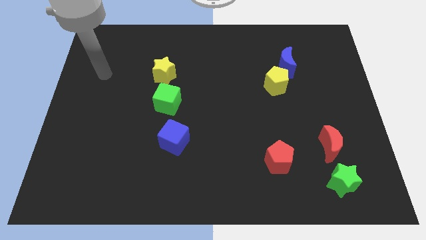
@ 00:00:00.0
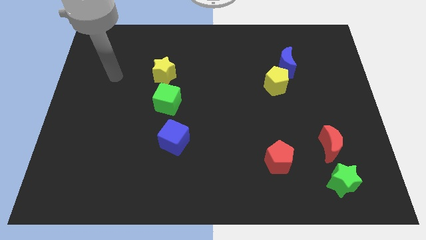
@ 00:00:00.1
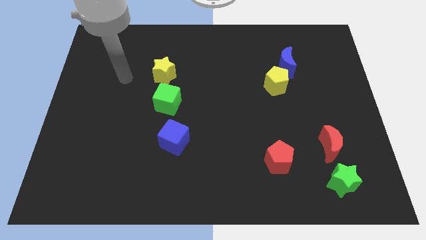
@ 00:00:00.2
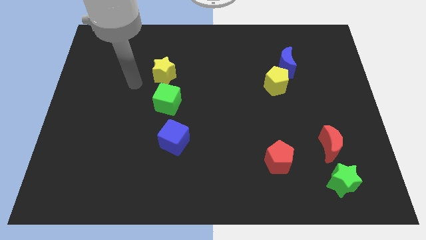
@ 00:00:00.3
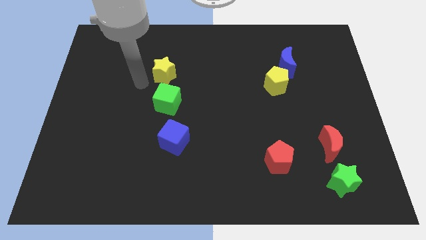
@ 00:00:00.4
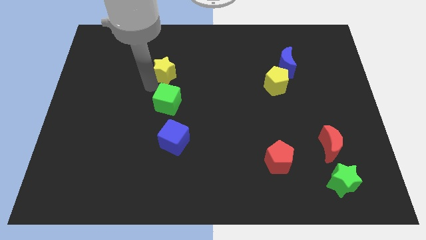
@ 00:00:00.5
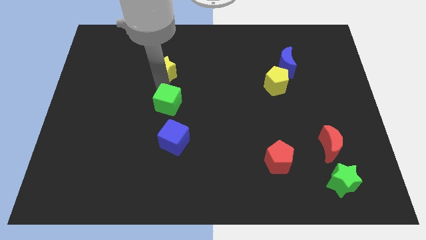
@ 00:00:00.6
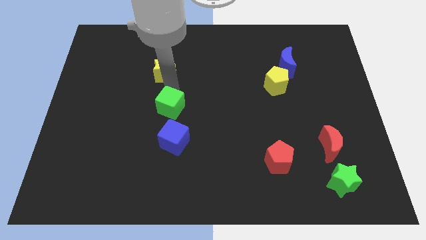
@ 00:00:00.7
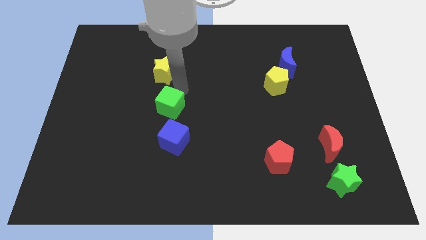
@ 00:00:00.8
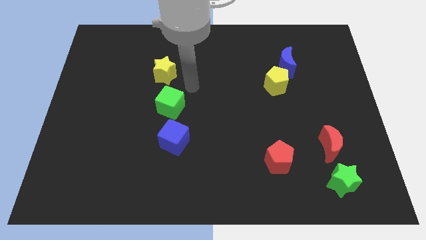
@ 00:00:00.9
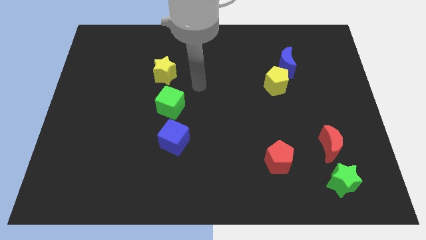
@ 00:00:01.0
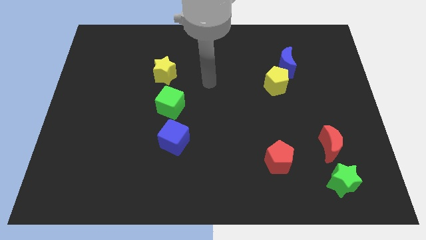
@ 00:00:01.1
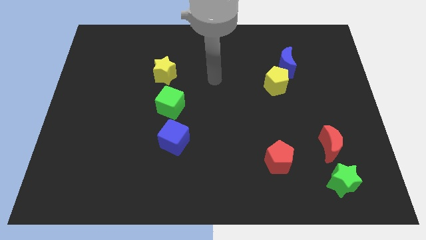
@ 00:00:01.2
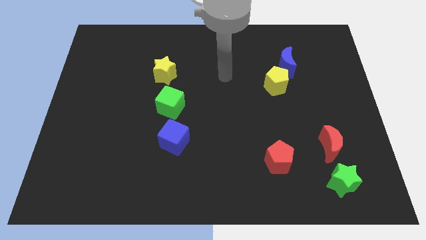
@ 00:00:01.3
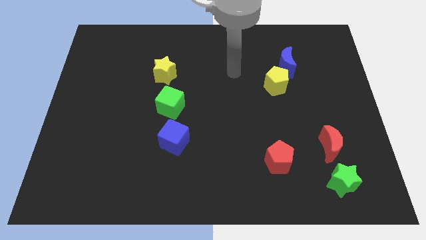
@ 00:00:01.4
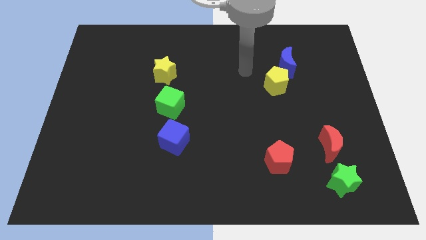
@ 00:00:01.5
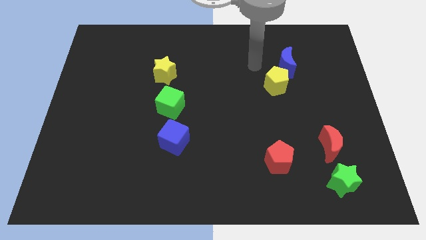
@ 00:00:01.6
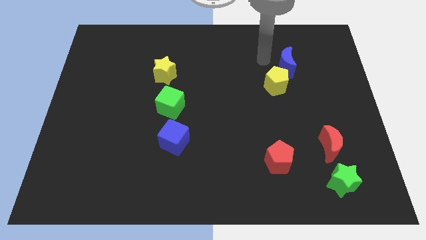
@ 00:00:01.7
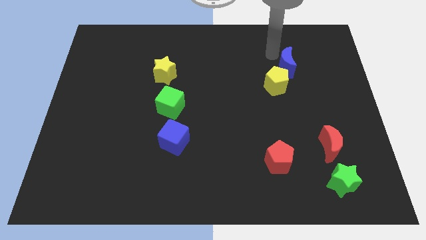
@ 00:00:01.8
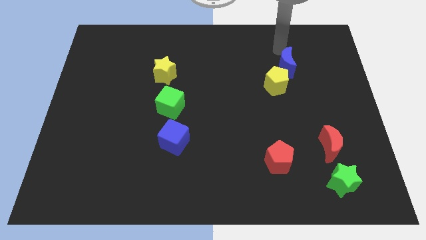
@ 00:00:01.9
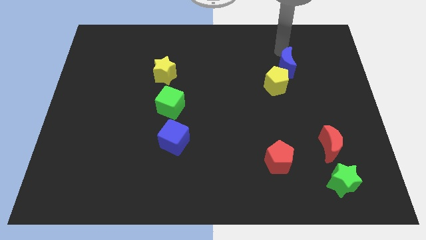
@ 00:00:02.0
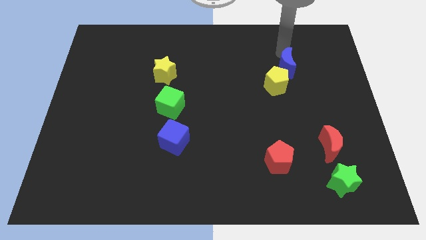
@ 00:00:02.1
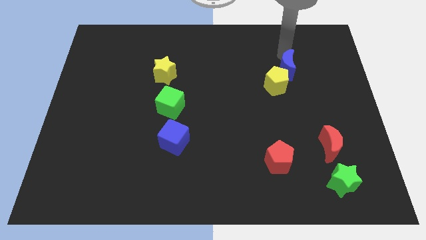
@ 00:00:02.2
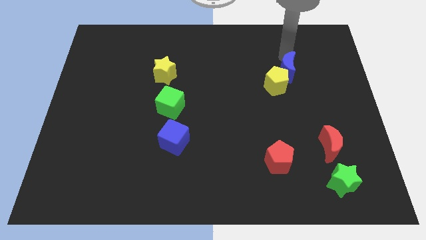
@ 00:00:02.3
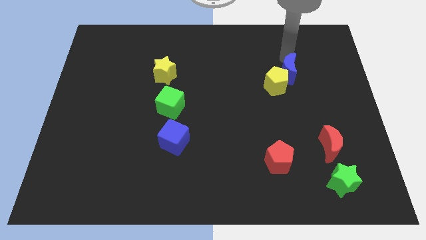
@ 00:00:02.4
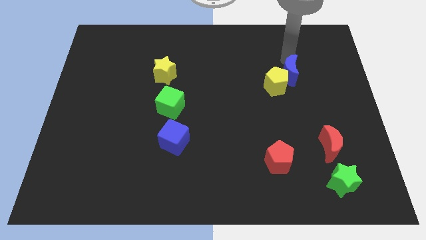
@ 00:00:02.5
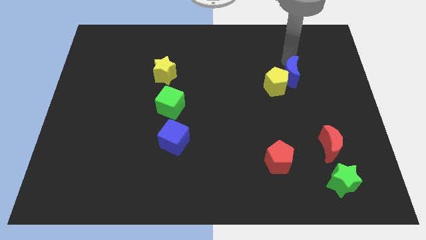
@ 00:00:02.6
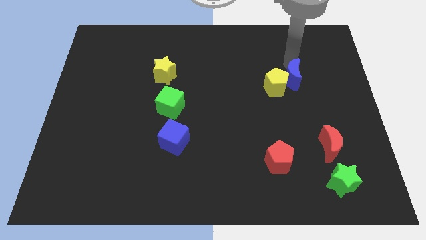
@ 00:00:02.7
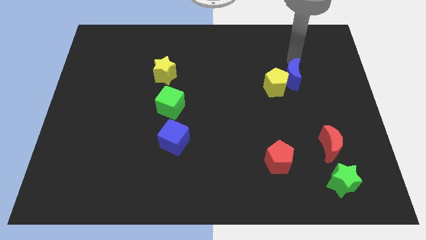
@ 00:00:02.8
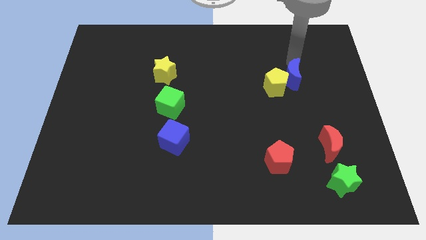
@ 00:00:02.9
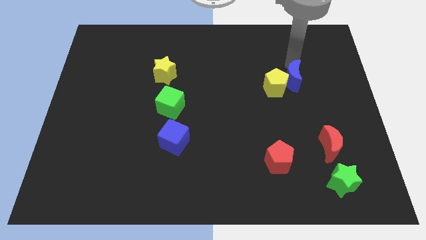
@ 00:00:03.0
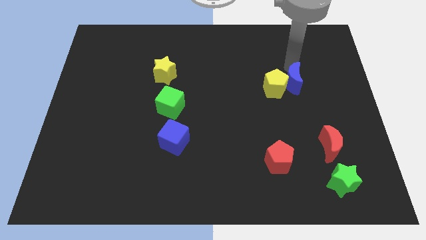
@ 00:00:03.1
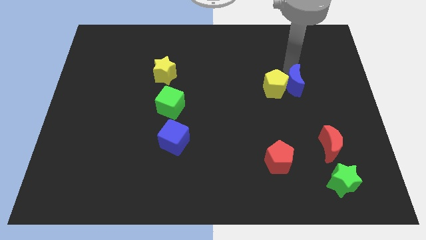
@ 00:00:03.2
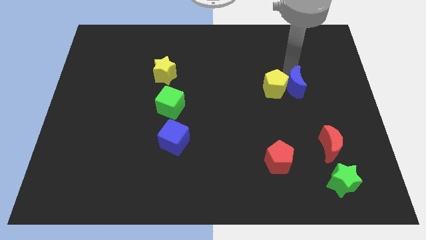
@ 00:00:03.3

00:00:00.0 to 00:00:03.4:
push the blue moon a little bit downwards

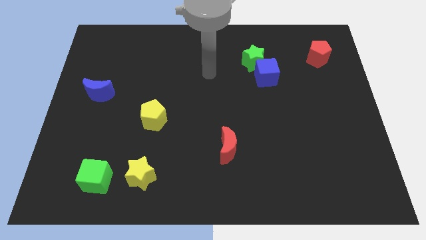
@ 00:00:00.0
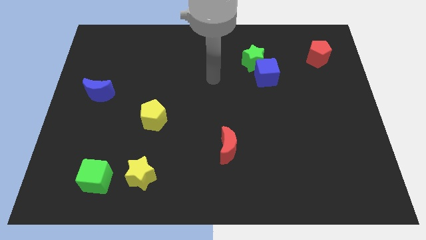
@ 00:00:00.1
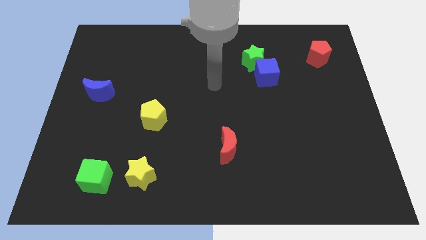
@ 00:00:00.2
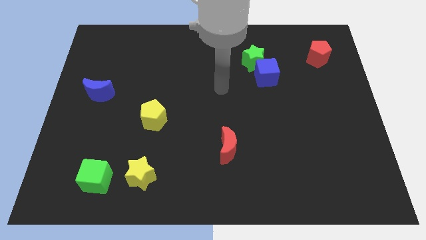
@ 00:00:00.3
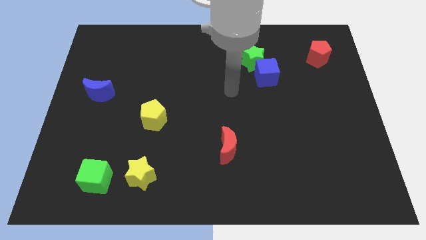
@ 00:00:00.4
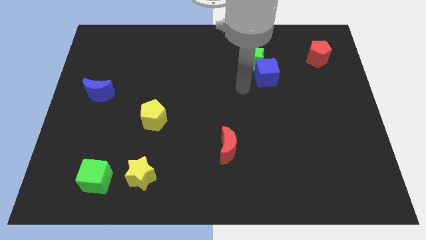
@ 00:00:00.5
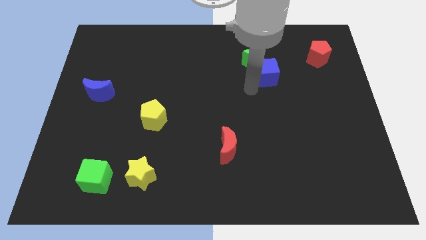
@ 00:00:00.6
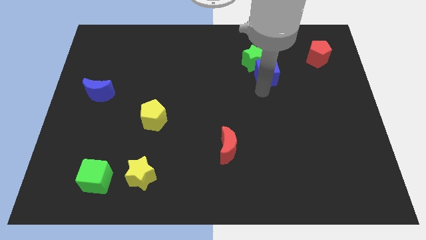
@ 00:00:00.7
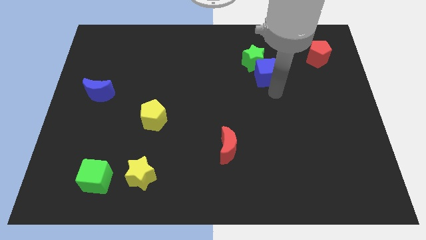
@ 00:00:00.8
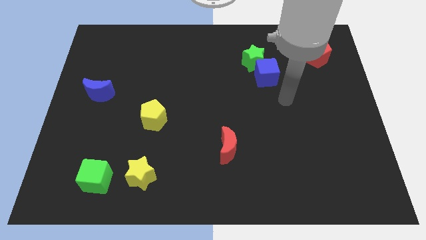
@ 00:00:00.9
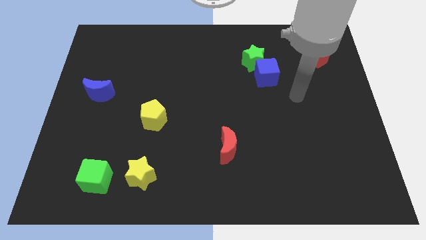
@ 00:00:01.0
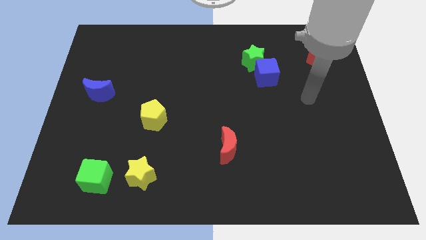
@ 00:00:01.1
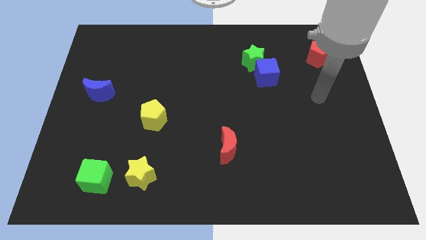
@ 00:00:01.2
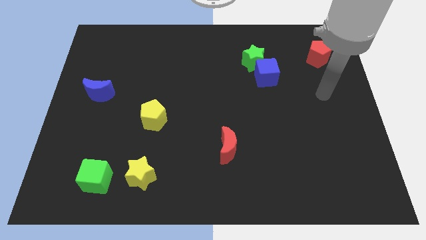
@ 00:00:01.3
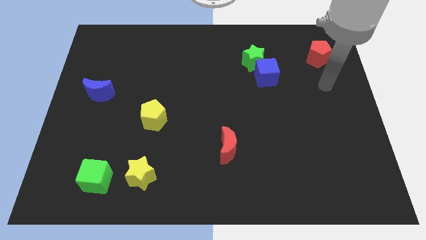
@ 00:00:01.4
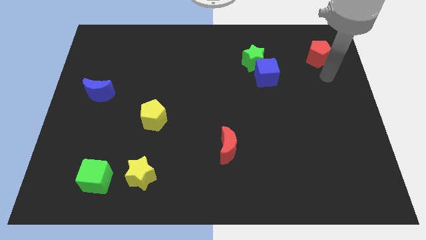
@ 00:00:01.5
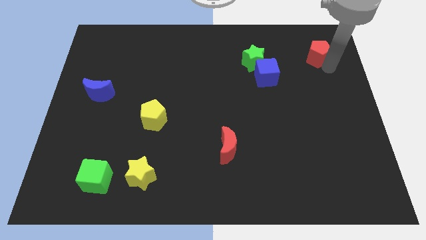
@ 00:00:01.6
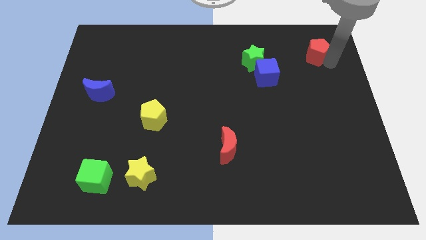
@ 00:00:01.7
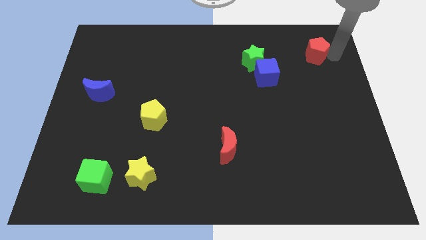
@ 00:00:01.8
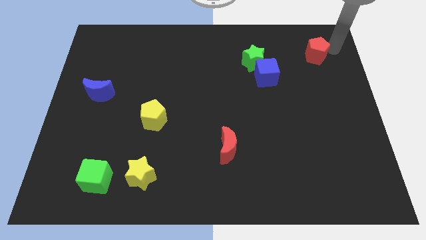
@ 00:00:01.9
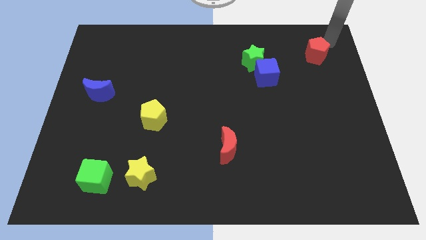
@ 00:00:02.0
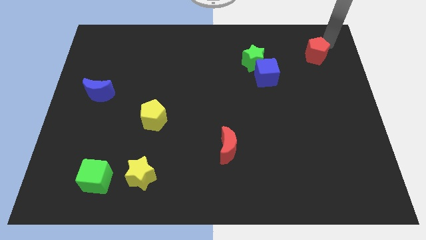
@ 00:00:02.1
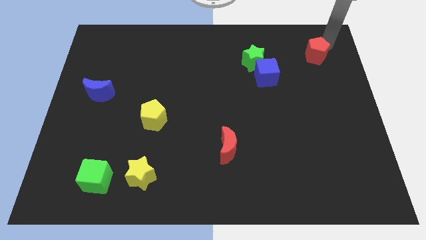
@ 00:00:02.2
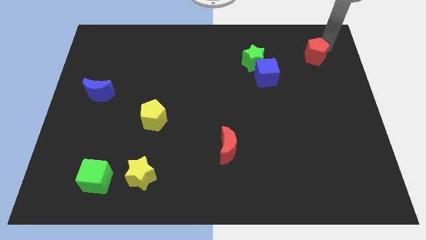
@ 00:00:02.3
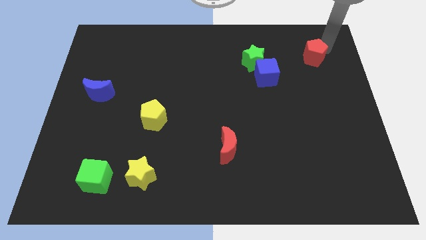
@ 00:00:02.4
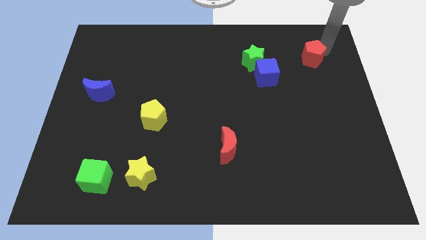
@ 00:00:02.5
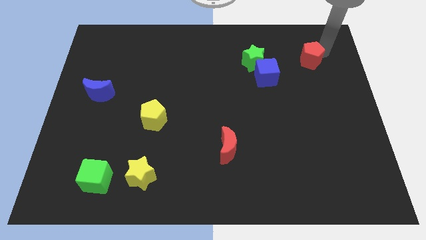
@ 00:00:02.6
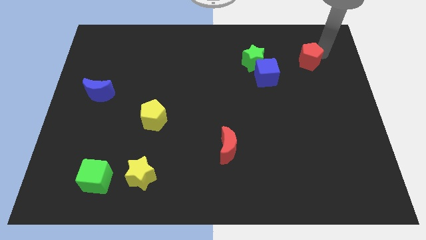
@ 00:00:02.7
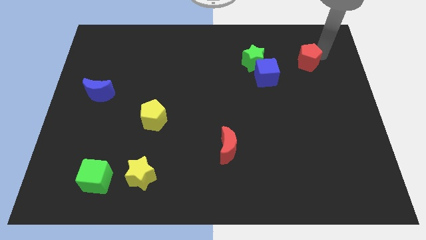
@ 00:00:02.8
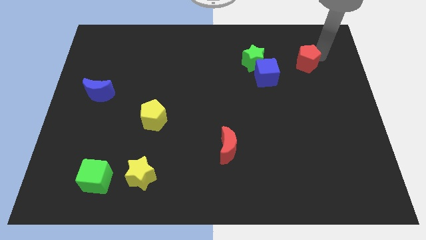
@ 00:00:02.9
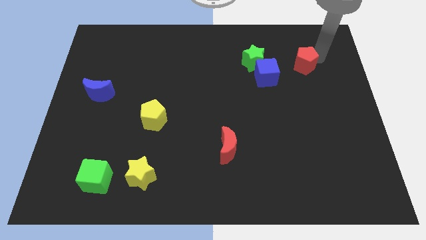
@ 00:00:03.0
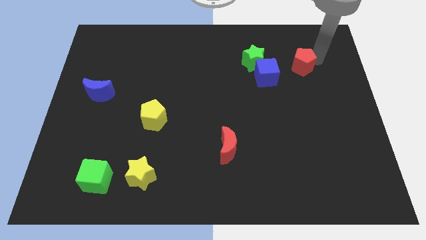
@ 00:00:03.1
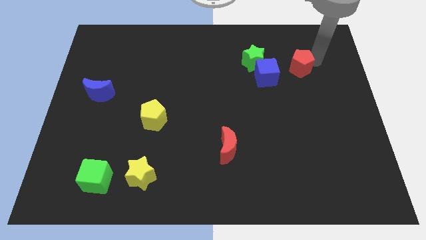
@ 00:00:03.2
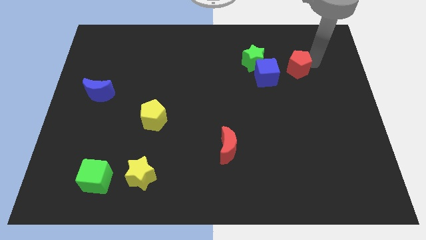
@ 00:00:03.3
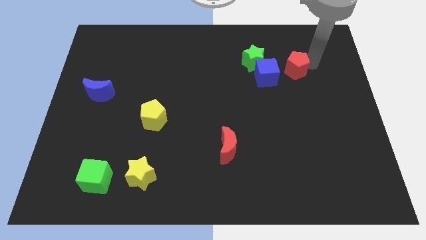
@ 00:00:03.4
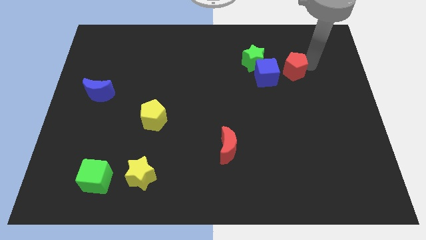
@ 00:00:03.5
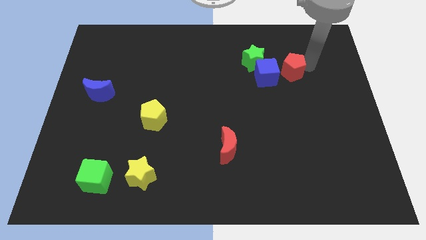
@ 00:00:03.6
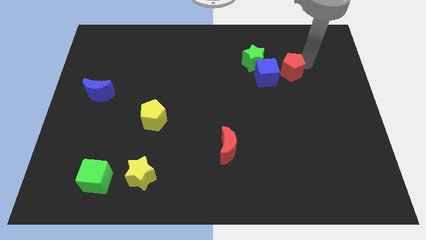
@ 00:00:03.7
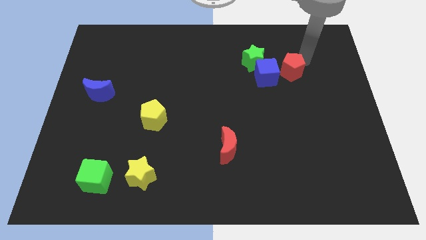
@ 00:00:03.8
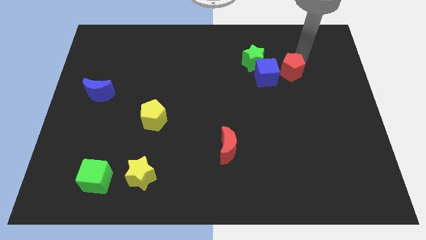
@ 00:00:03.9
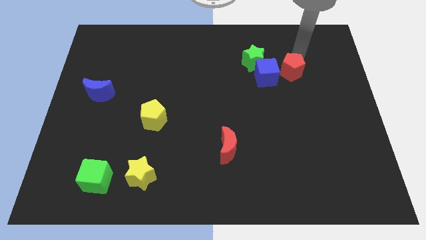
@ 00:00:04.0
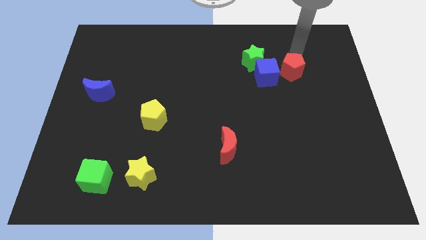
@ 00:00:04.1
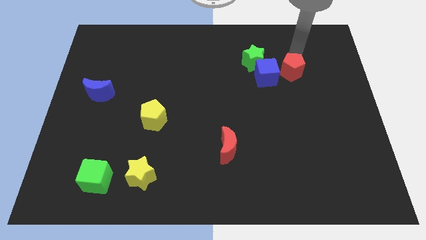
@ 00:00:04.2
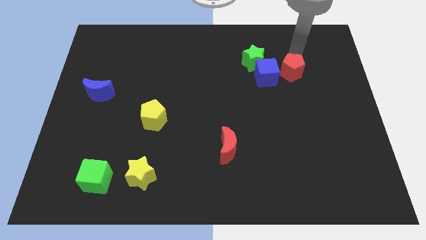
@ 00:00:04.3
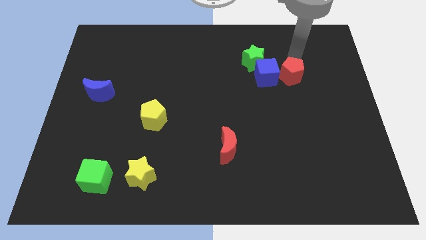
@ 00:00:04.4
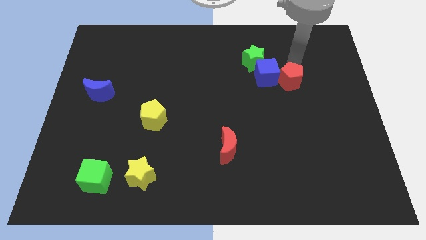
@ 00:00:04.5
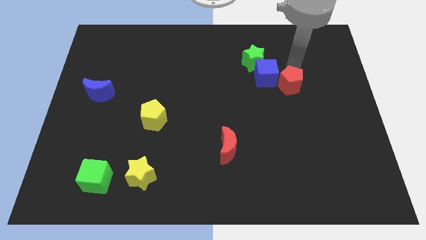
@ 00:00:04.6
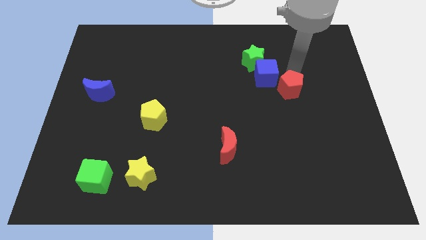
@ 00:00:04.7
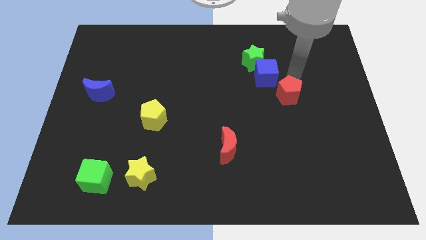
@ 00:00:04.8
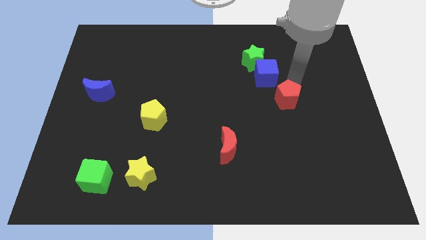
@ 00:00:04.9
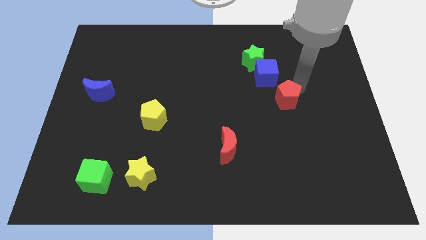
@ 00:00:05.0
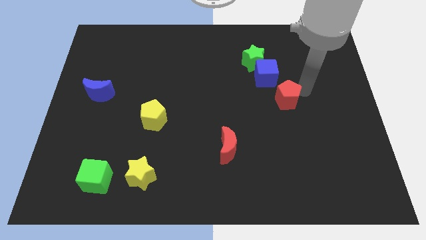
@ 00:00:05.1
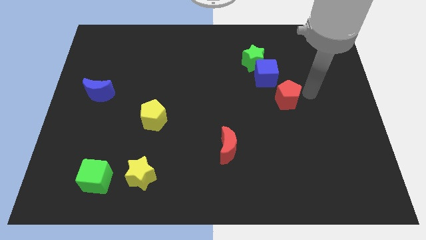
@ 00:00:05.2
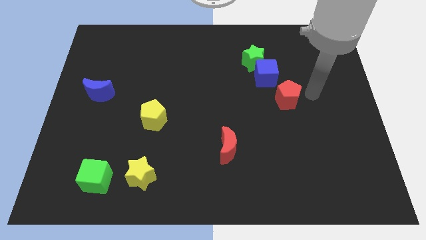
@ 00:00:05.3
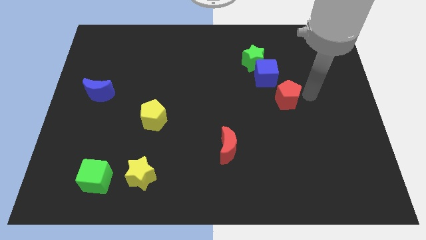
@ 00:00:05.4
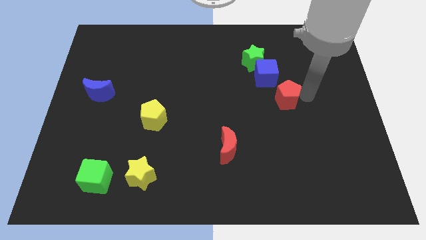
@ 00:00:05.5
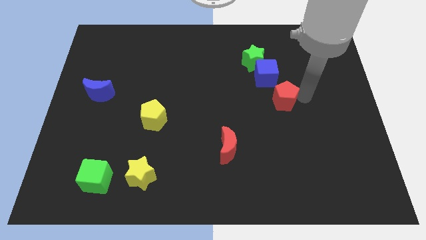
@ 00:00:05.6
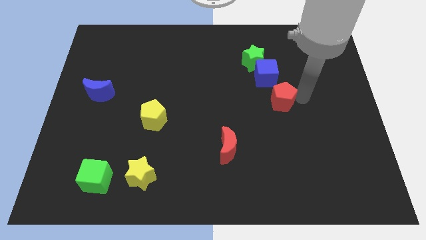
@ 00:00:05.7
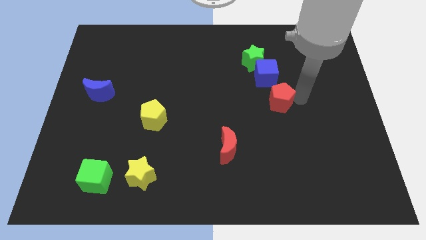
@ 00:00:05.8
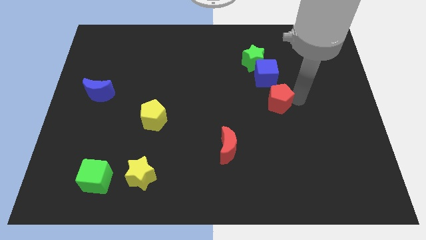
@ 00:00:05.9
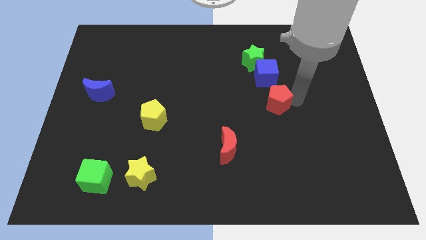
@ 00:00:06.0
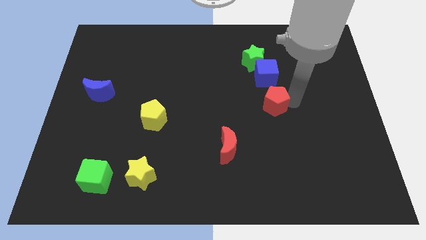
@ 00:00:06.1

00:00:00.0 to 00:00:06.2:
move the red pentagon diagonally down and to the left
